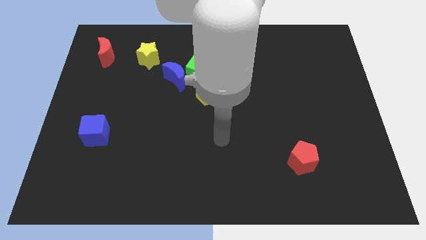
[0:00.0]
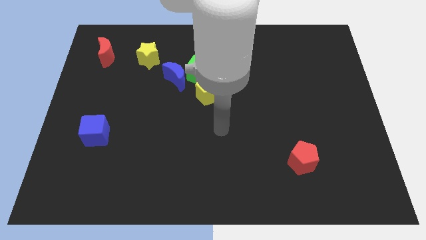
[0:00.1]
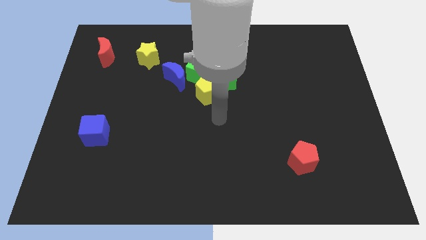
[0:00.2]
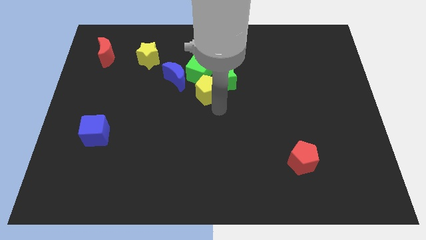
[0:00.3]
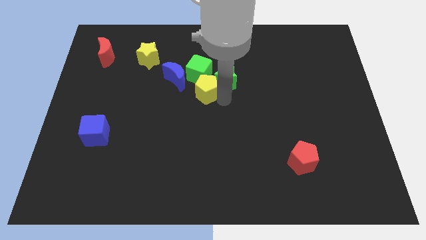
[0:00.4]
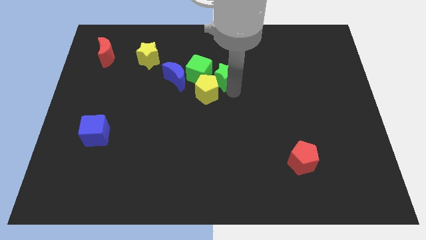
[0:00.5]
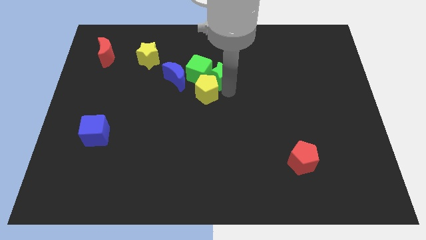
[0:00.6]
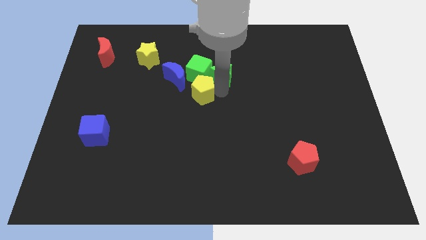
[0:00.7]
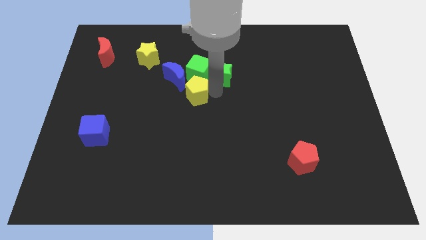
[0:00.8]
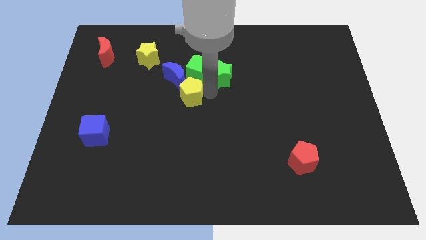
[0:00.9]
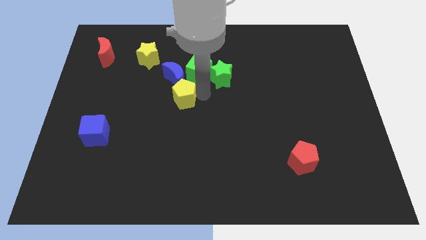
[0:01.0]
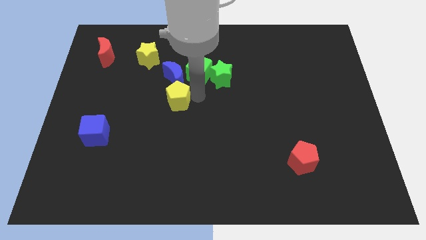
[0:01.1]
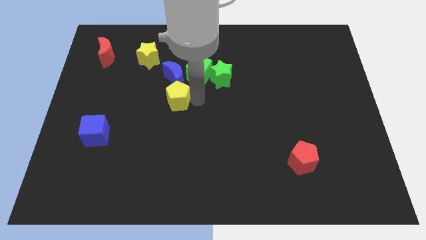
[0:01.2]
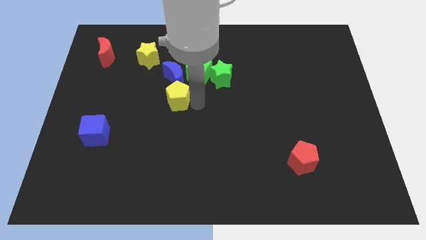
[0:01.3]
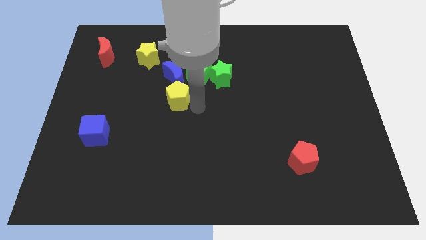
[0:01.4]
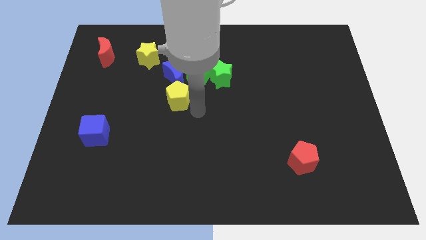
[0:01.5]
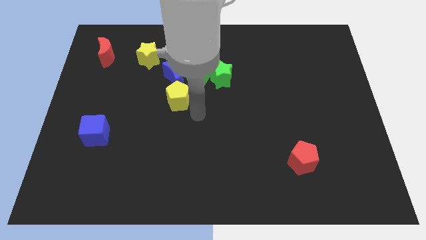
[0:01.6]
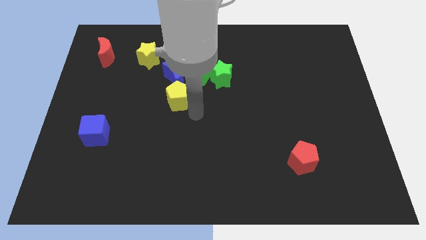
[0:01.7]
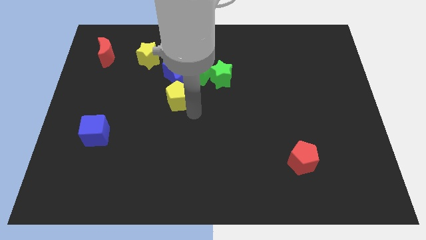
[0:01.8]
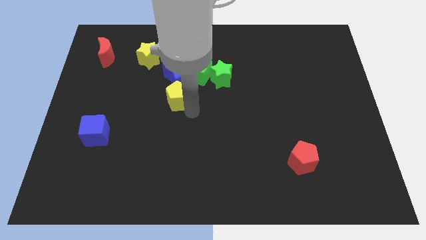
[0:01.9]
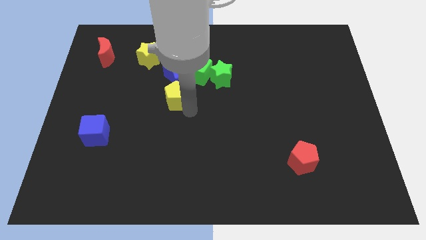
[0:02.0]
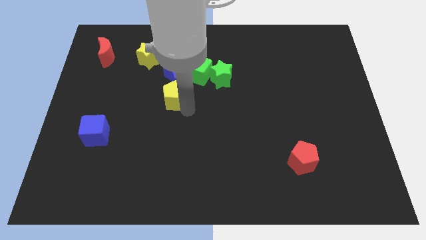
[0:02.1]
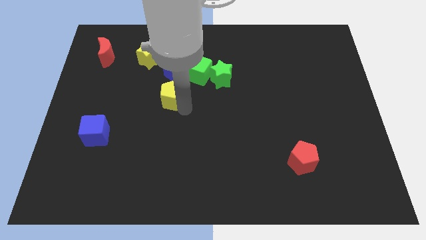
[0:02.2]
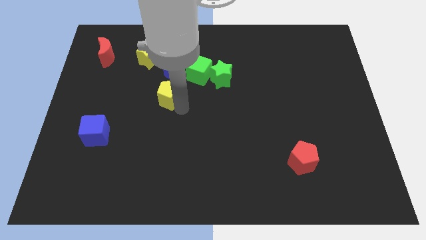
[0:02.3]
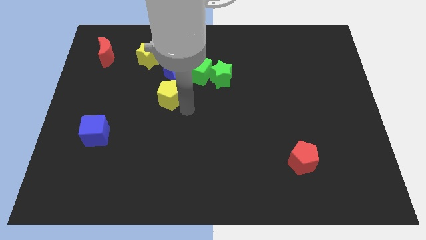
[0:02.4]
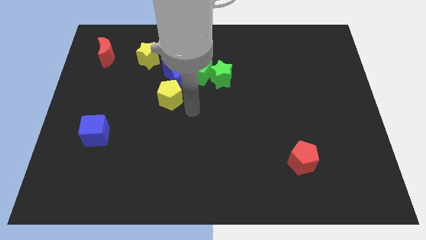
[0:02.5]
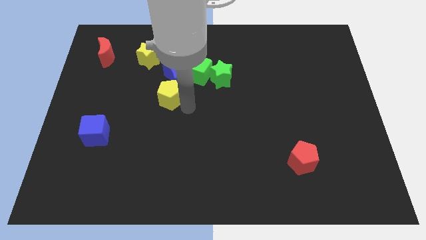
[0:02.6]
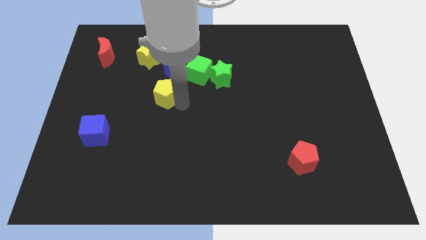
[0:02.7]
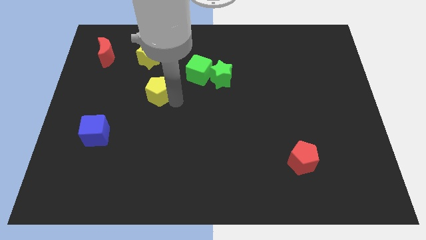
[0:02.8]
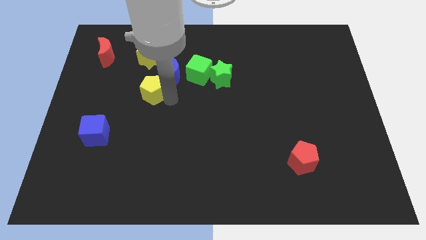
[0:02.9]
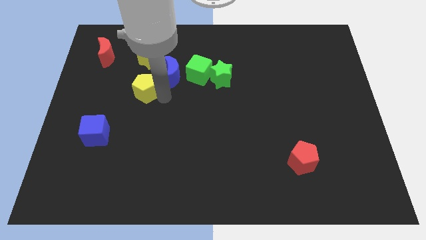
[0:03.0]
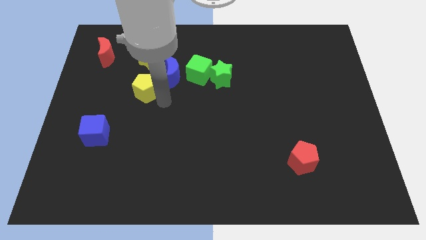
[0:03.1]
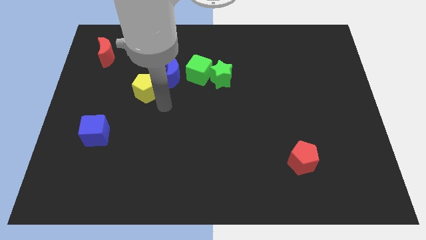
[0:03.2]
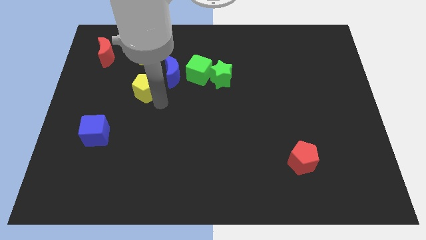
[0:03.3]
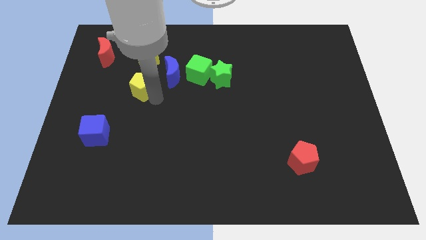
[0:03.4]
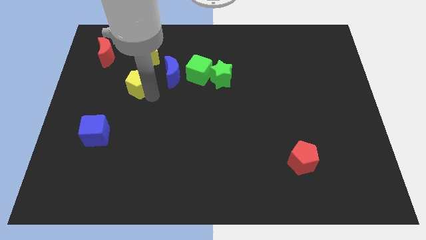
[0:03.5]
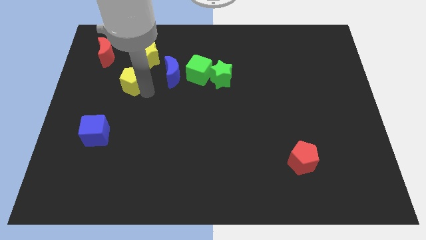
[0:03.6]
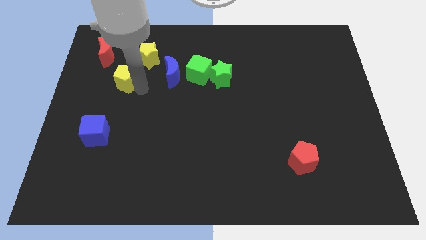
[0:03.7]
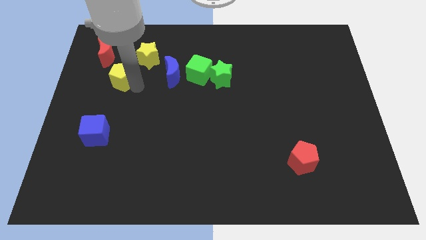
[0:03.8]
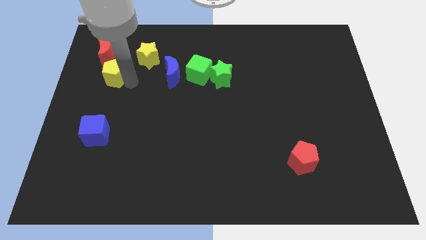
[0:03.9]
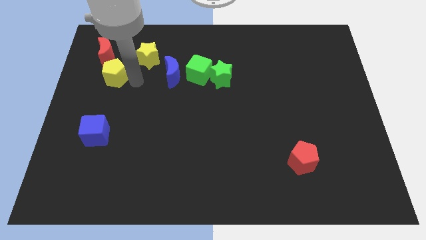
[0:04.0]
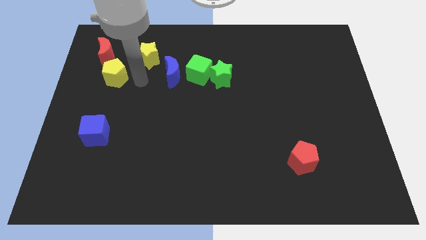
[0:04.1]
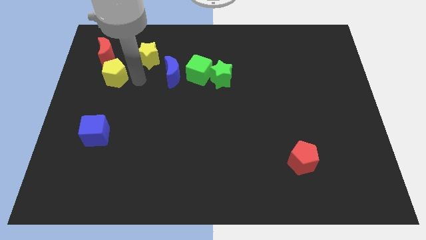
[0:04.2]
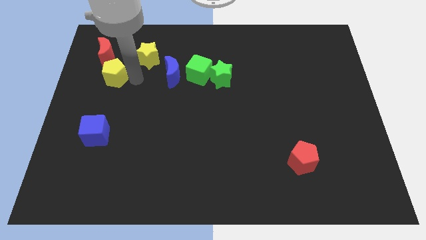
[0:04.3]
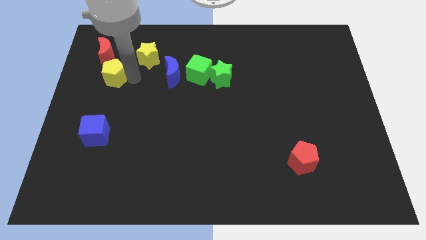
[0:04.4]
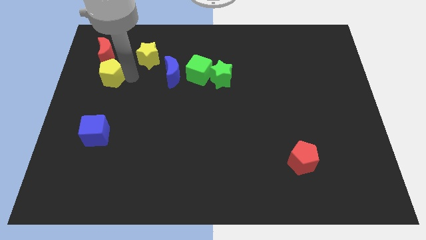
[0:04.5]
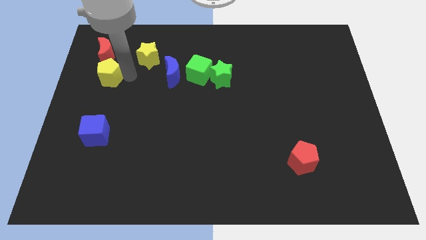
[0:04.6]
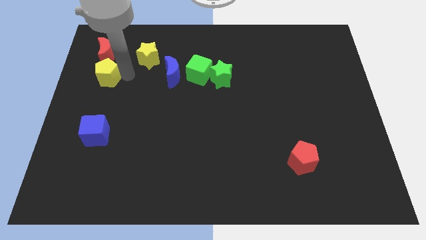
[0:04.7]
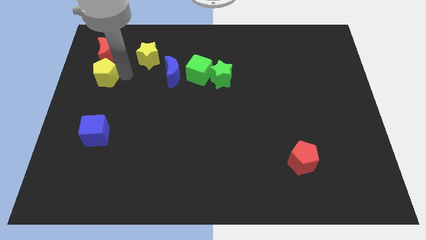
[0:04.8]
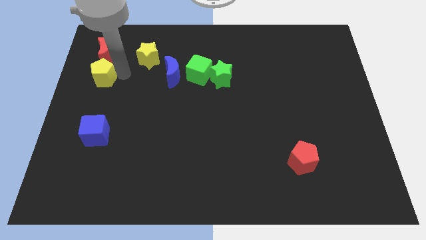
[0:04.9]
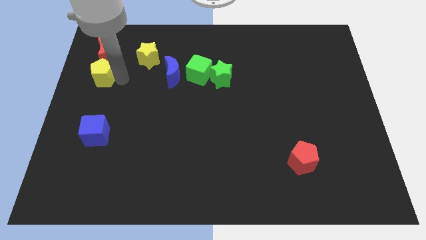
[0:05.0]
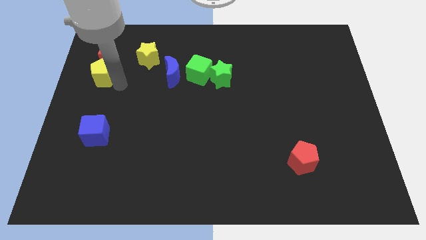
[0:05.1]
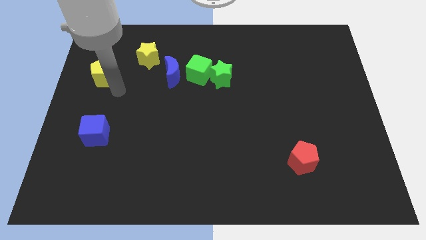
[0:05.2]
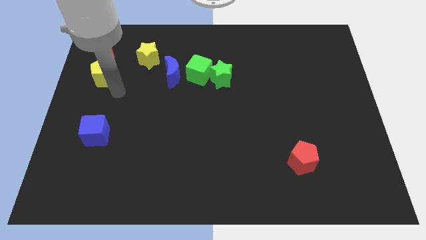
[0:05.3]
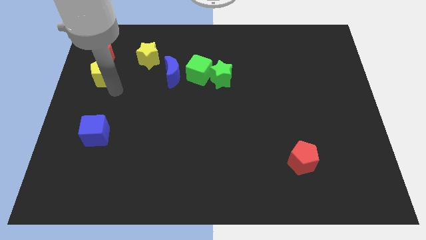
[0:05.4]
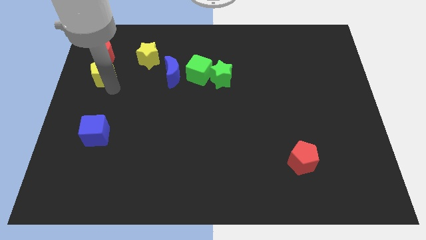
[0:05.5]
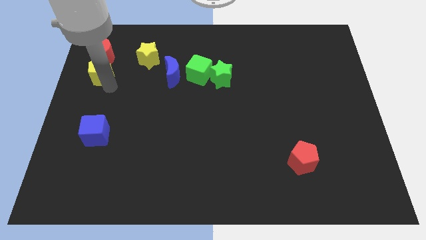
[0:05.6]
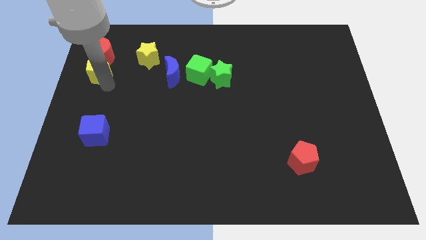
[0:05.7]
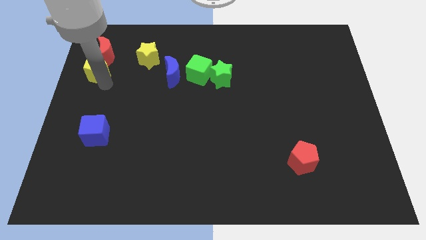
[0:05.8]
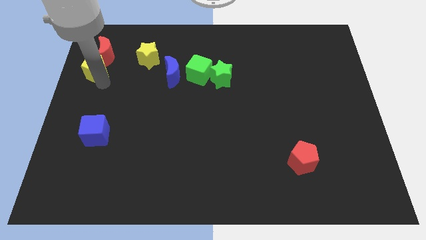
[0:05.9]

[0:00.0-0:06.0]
put the yellow pentagon to the left of the yellow star
